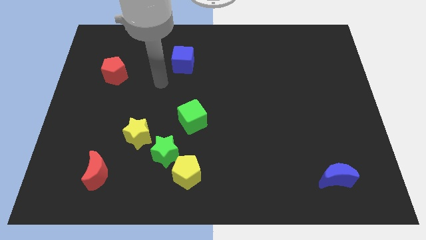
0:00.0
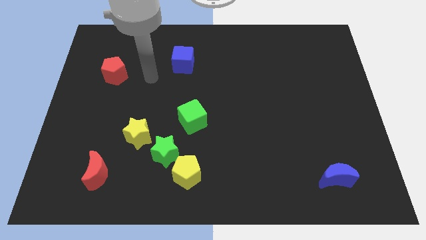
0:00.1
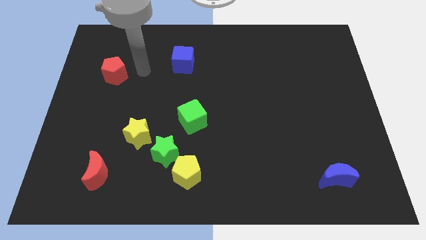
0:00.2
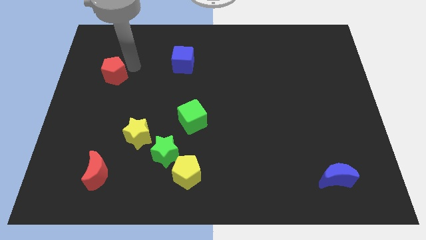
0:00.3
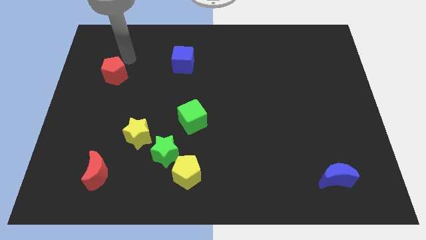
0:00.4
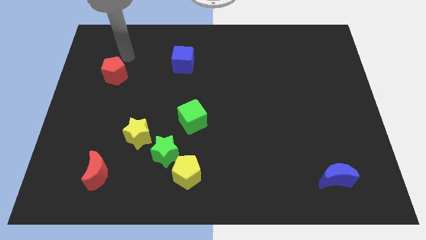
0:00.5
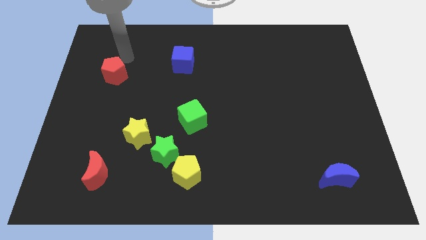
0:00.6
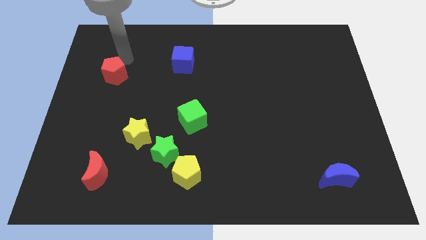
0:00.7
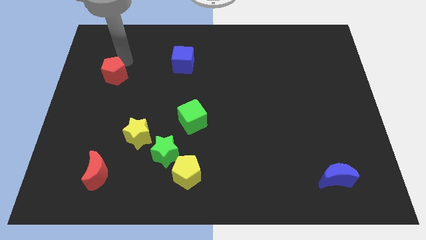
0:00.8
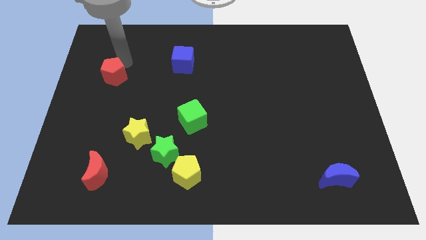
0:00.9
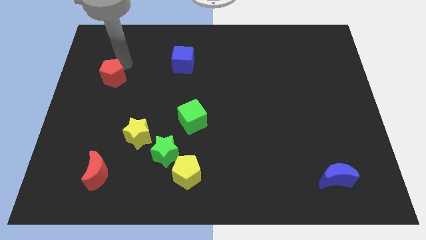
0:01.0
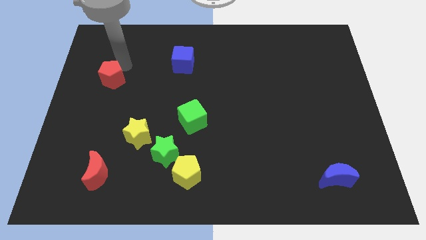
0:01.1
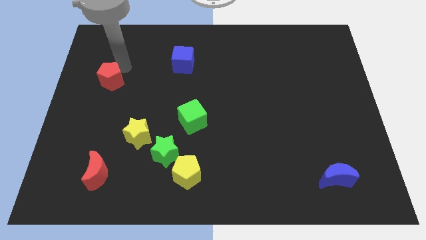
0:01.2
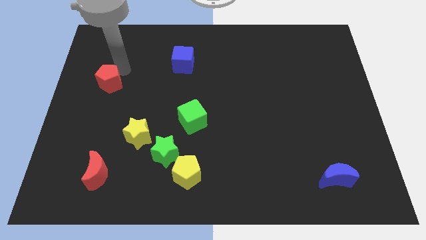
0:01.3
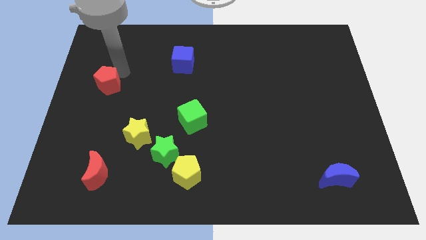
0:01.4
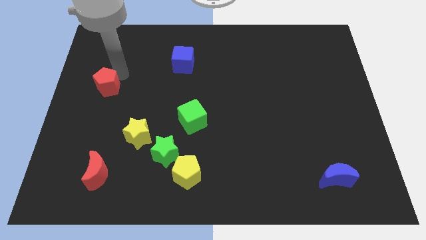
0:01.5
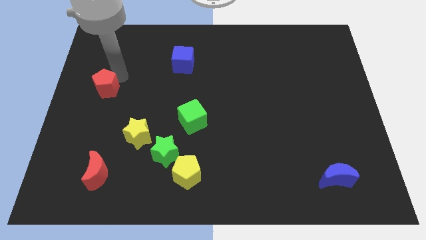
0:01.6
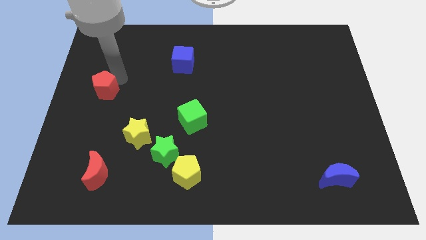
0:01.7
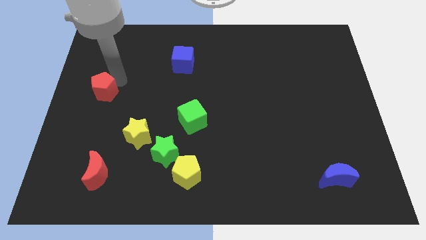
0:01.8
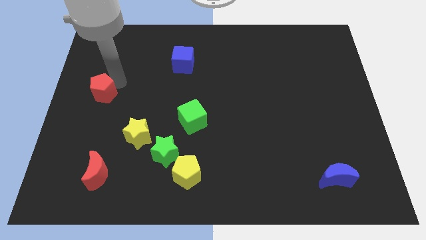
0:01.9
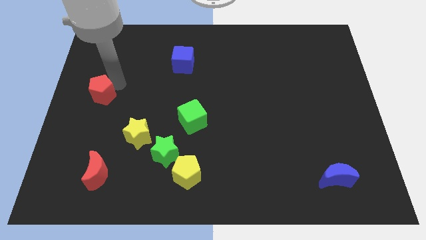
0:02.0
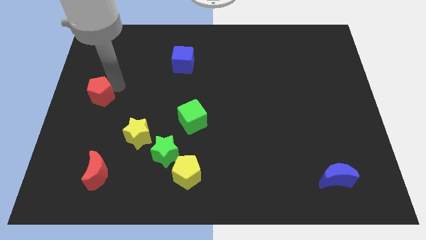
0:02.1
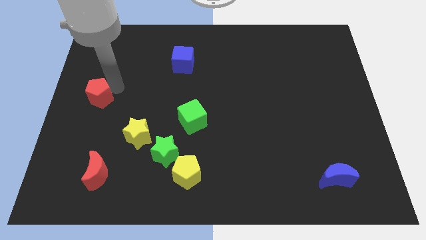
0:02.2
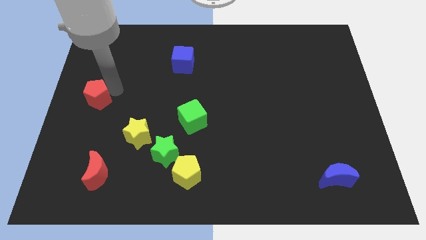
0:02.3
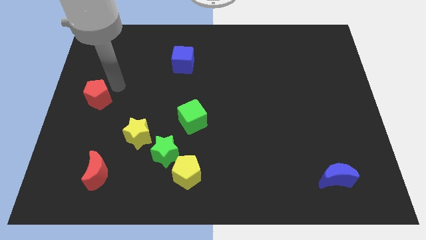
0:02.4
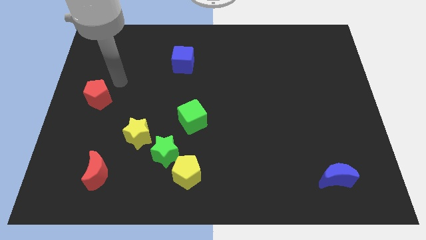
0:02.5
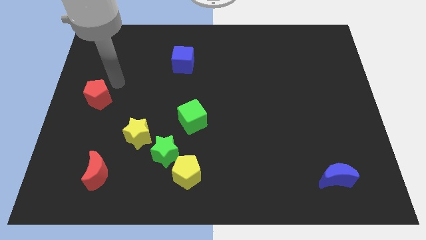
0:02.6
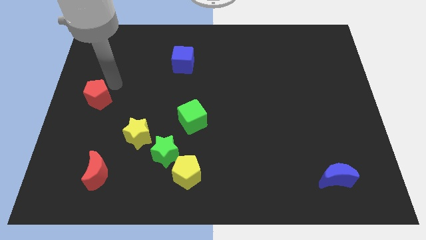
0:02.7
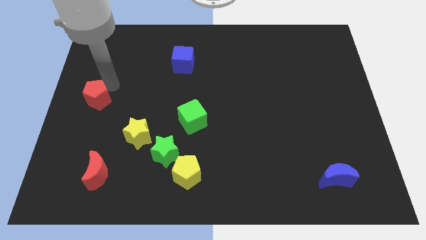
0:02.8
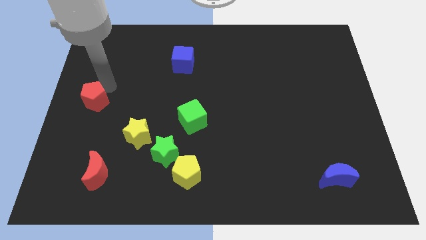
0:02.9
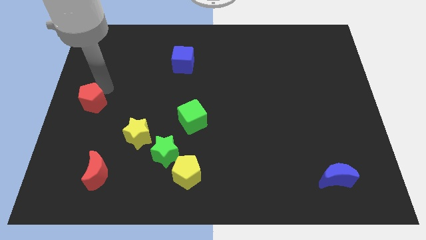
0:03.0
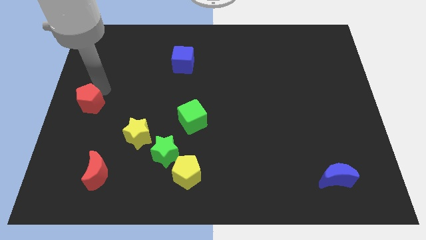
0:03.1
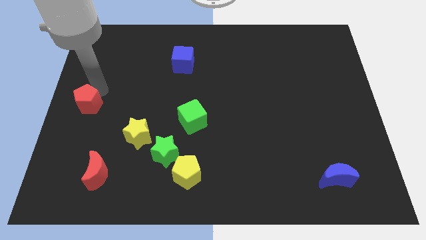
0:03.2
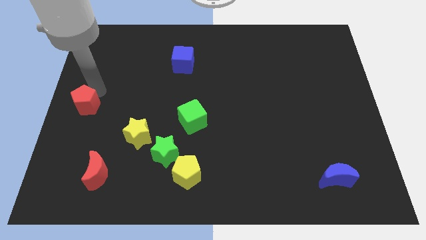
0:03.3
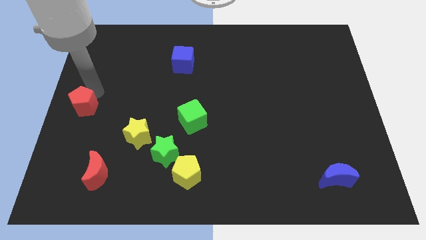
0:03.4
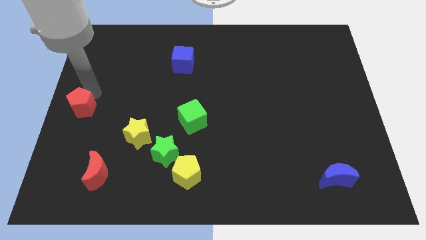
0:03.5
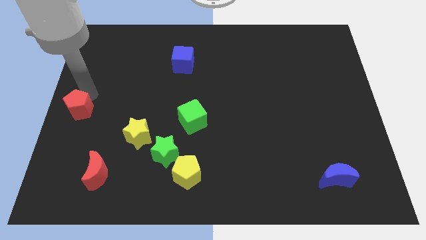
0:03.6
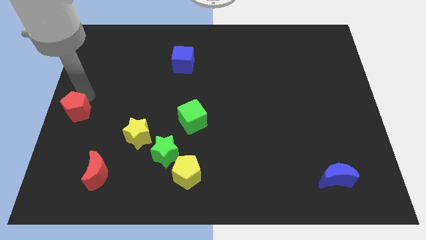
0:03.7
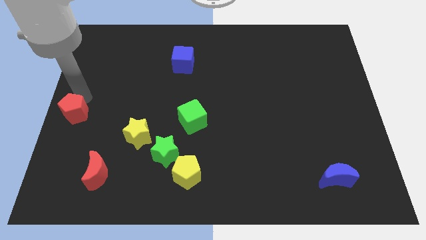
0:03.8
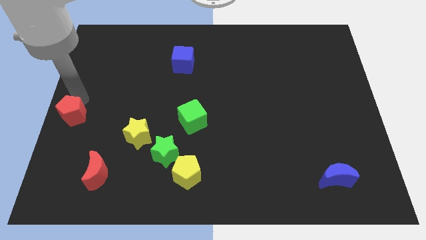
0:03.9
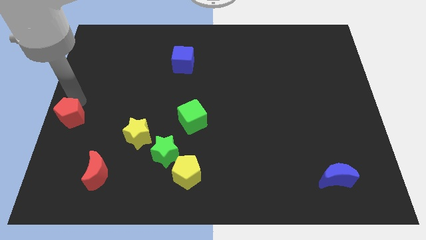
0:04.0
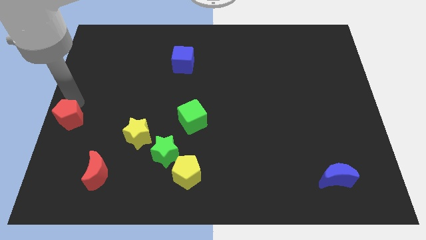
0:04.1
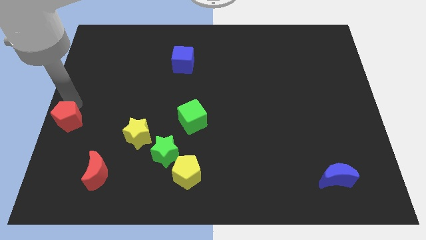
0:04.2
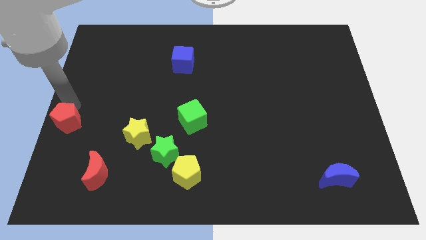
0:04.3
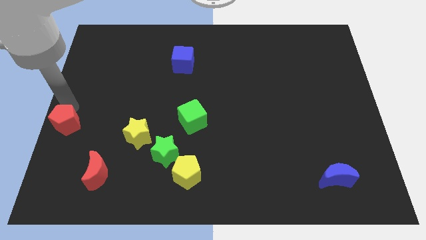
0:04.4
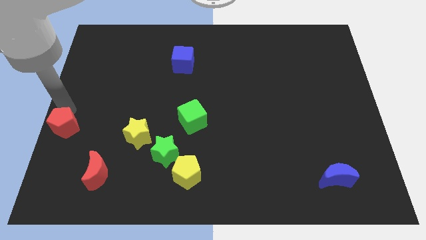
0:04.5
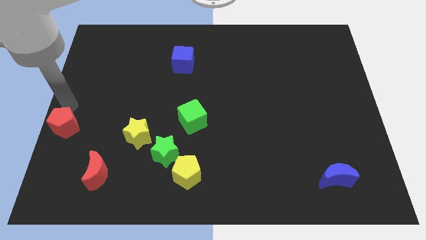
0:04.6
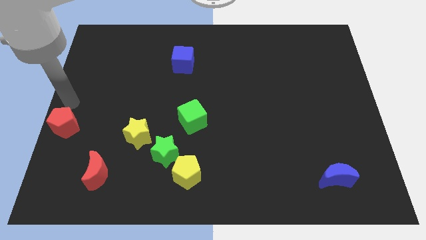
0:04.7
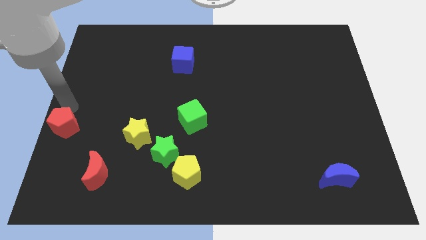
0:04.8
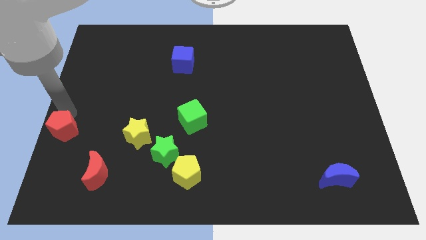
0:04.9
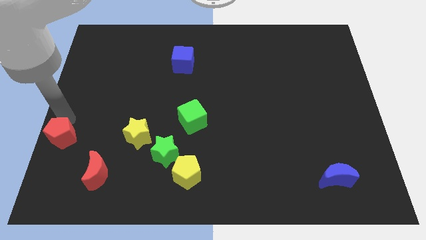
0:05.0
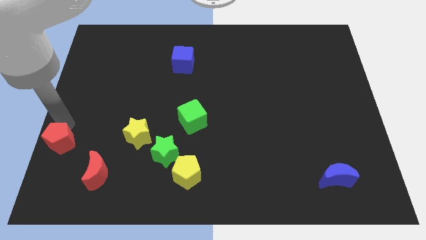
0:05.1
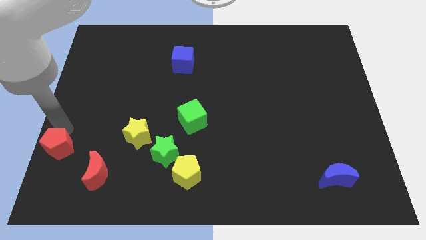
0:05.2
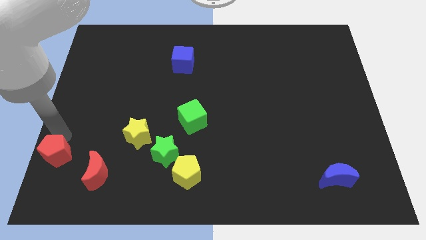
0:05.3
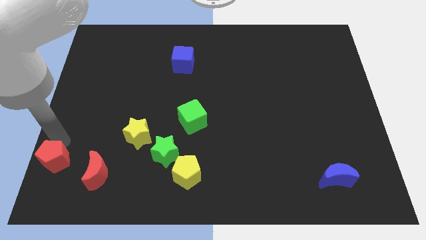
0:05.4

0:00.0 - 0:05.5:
put the red pentagon to the bottom left corner
